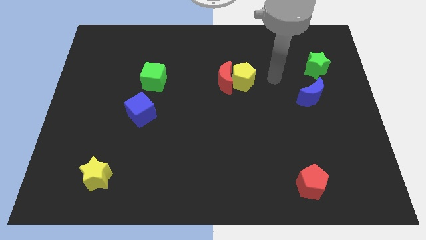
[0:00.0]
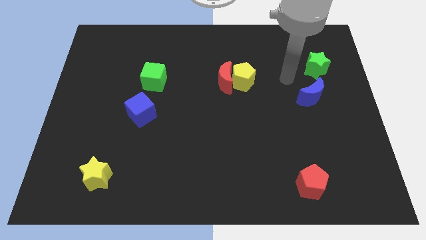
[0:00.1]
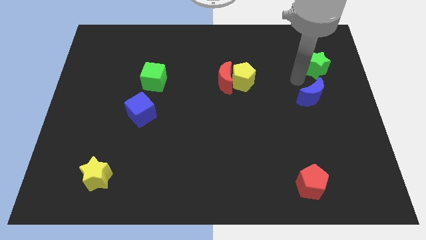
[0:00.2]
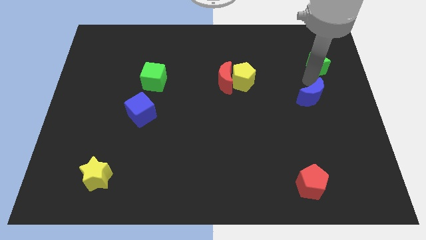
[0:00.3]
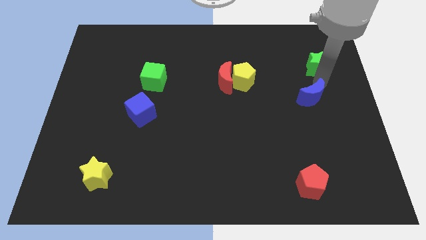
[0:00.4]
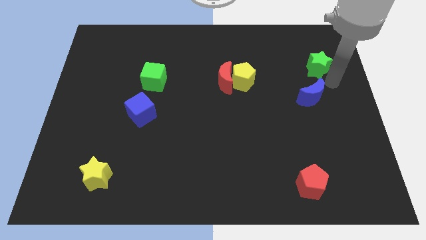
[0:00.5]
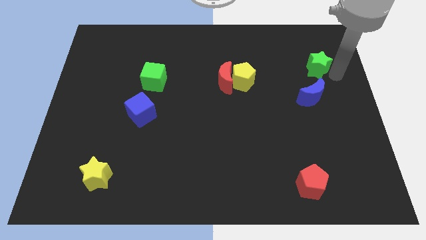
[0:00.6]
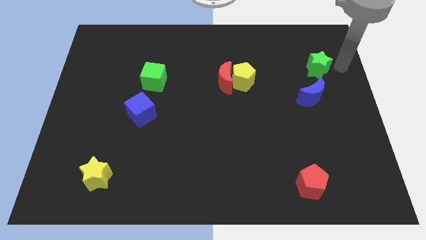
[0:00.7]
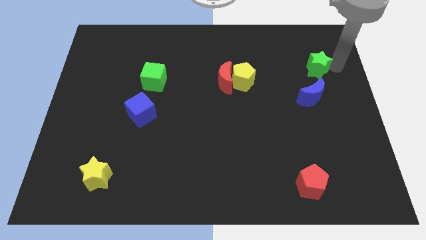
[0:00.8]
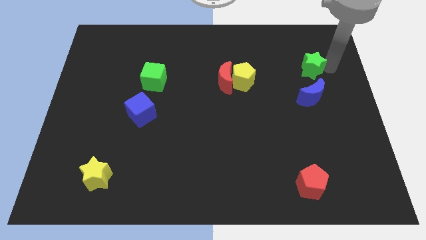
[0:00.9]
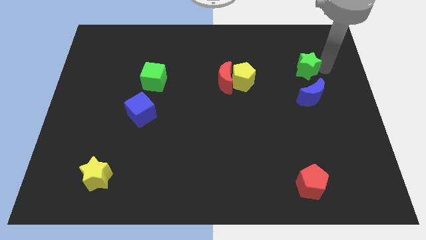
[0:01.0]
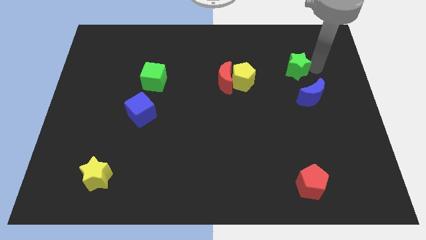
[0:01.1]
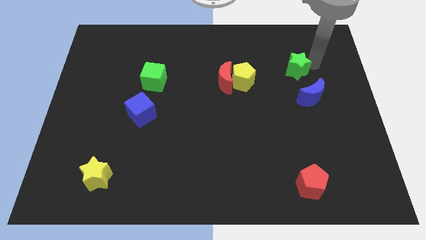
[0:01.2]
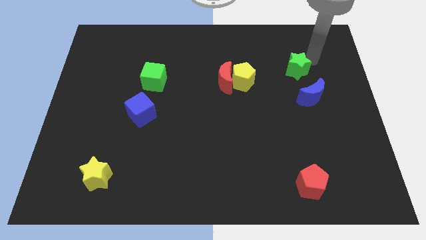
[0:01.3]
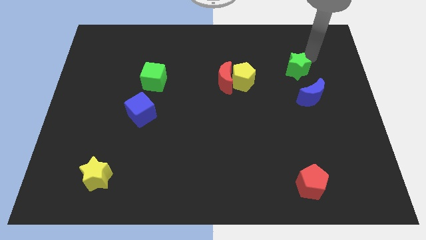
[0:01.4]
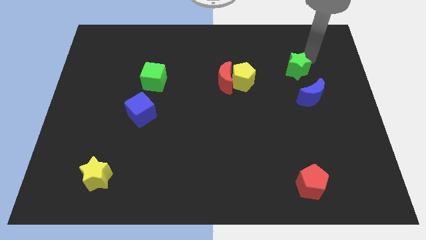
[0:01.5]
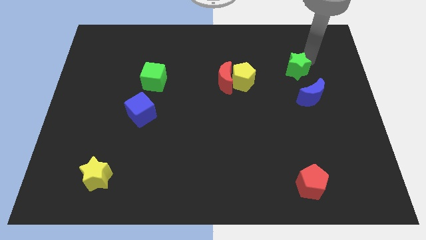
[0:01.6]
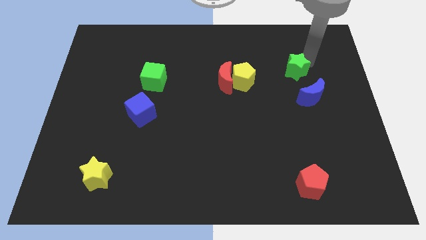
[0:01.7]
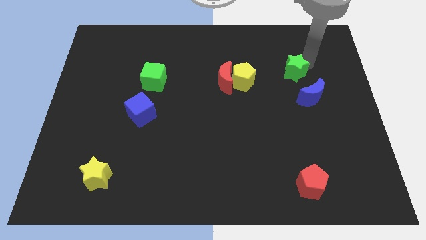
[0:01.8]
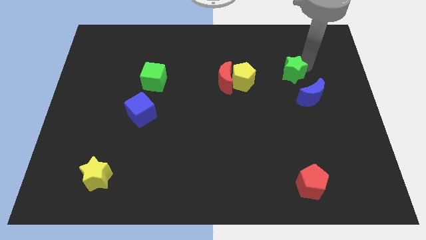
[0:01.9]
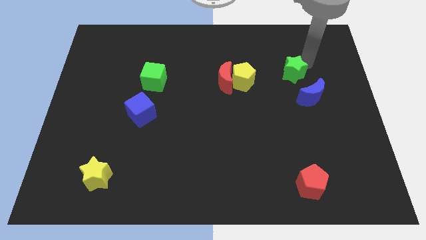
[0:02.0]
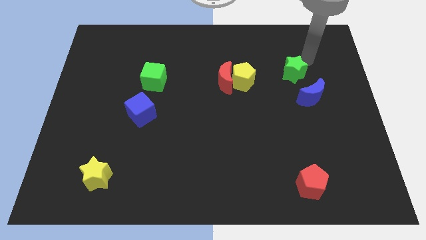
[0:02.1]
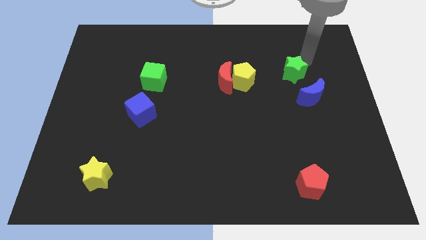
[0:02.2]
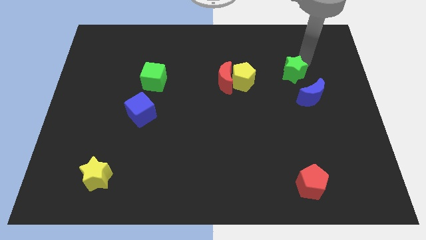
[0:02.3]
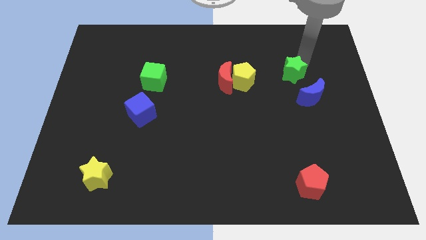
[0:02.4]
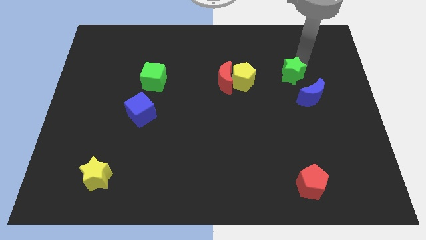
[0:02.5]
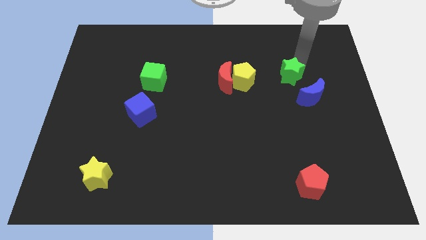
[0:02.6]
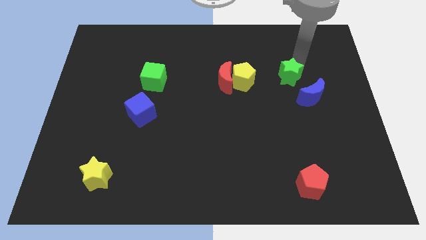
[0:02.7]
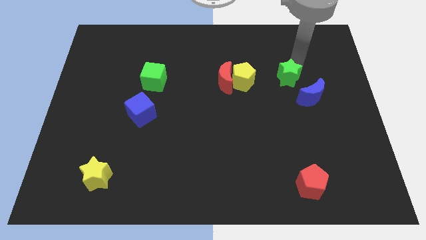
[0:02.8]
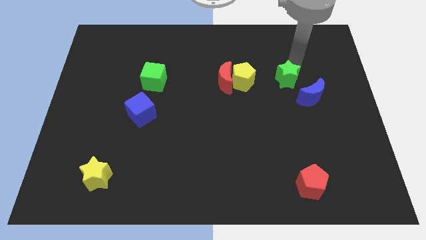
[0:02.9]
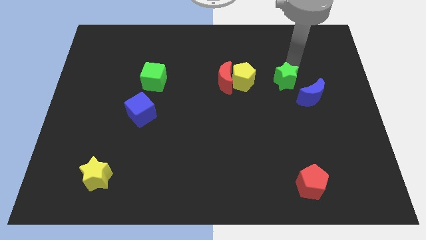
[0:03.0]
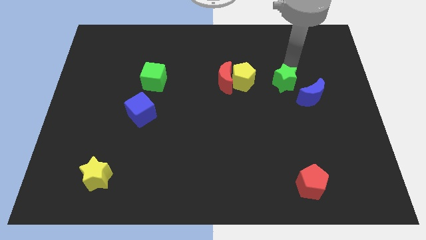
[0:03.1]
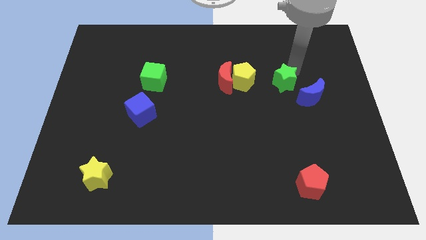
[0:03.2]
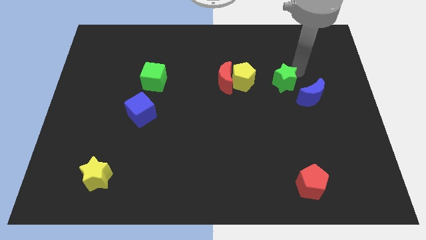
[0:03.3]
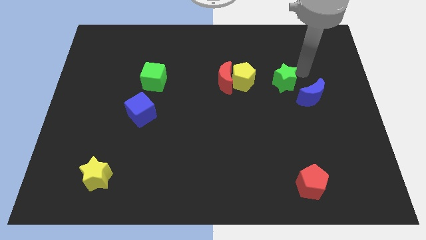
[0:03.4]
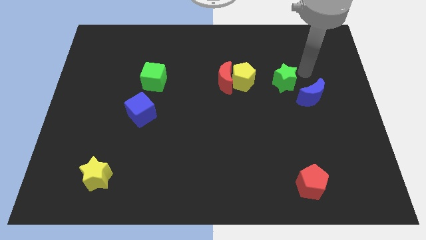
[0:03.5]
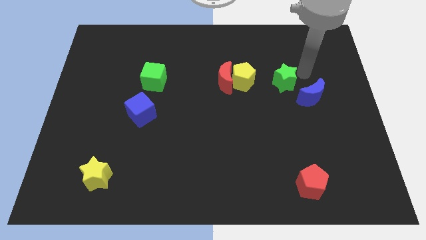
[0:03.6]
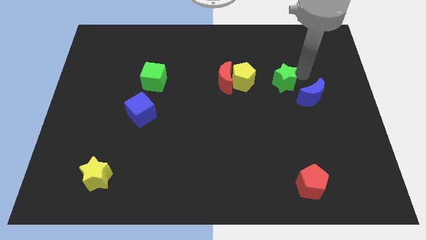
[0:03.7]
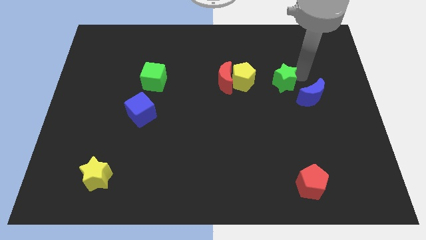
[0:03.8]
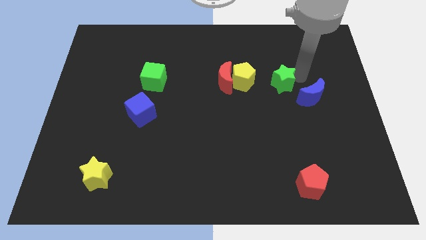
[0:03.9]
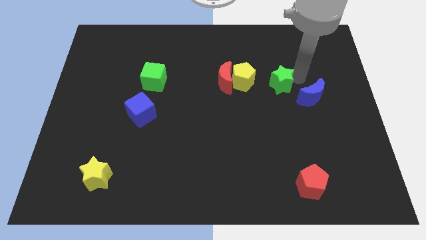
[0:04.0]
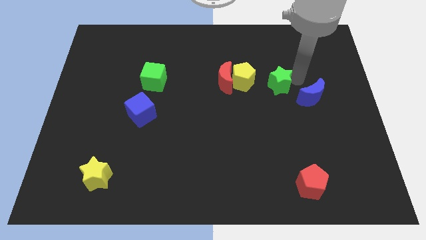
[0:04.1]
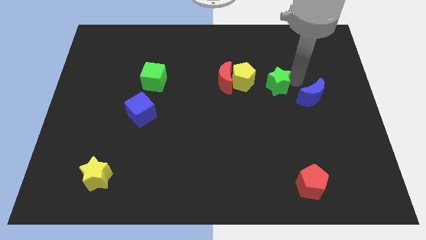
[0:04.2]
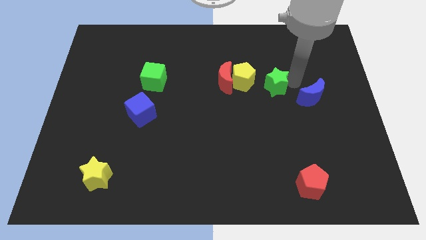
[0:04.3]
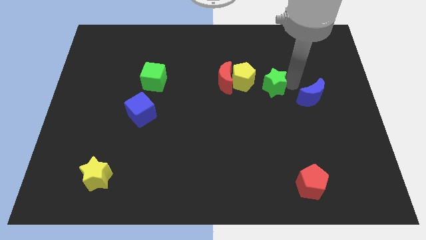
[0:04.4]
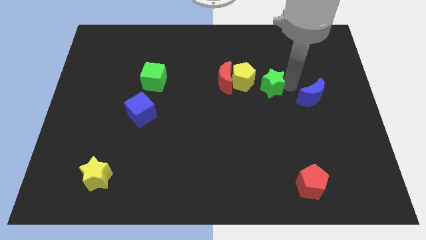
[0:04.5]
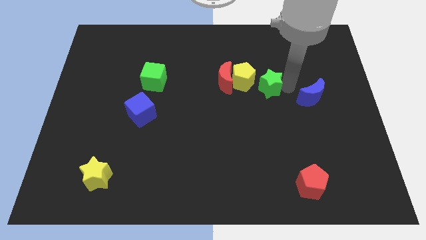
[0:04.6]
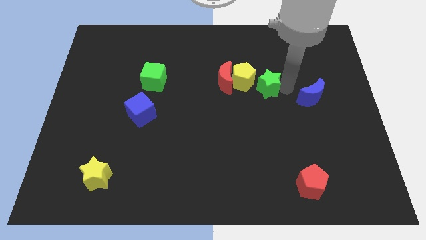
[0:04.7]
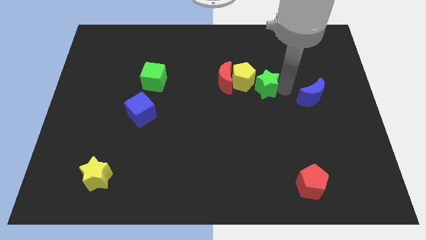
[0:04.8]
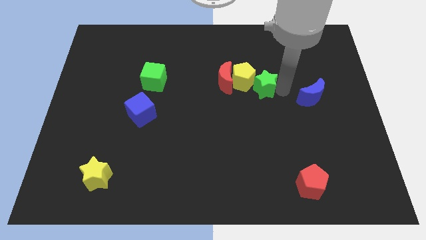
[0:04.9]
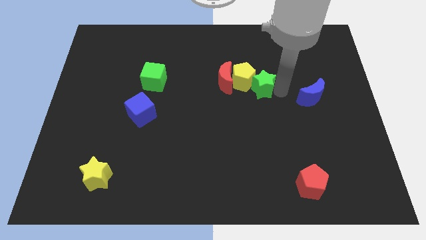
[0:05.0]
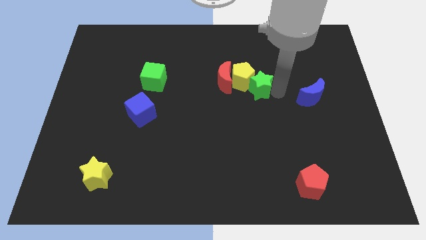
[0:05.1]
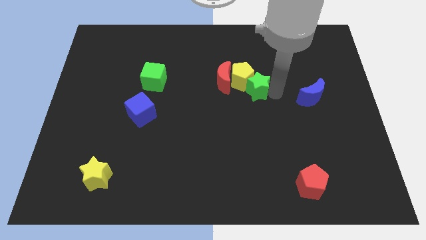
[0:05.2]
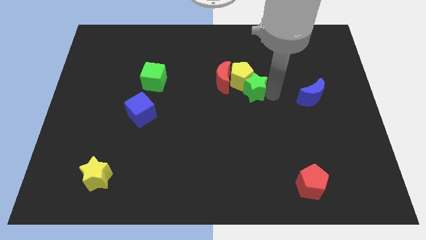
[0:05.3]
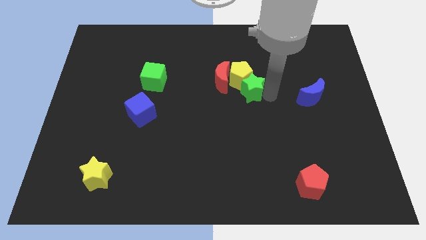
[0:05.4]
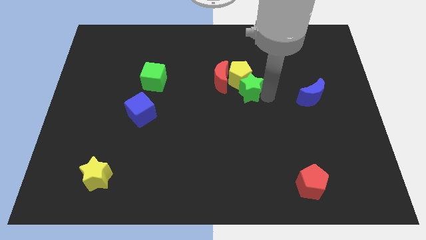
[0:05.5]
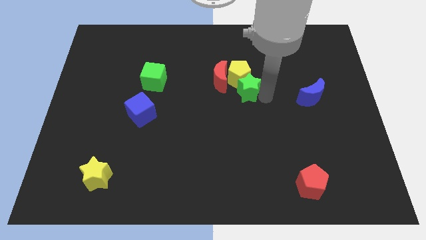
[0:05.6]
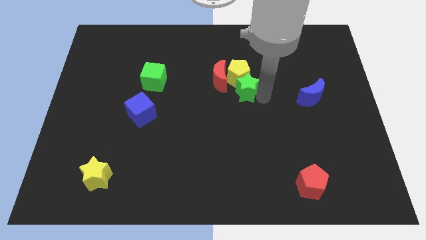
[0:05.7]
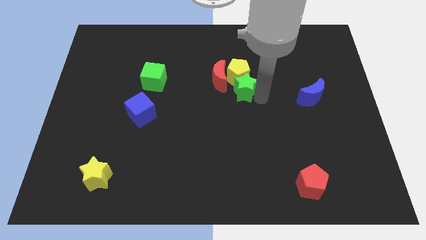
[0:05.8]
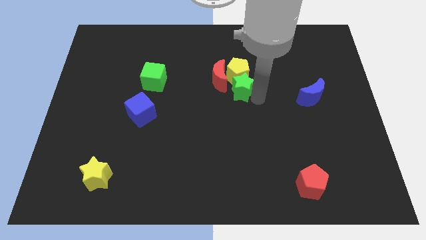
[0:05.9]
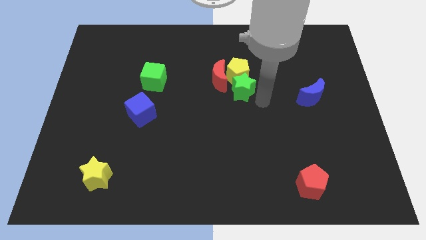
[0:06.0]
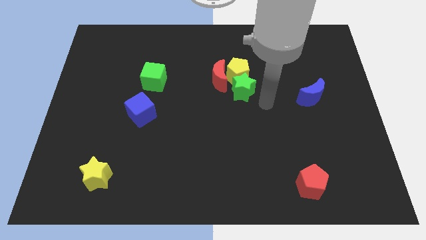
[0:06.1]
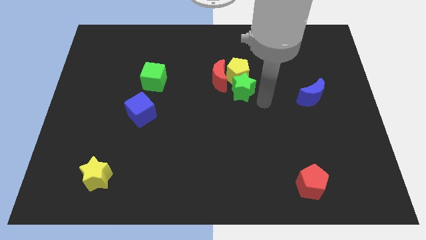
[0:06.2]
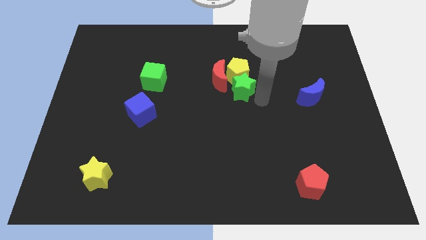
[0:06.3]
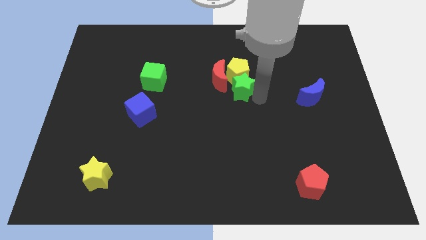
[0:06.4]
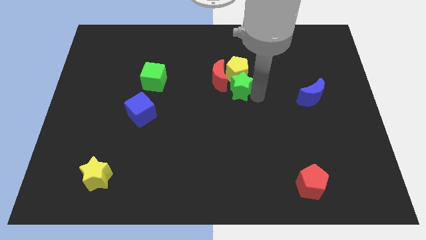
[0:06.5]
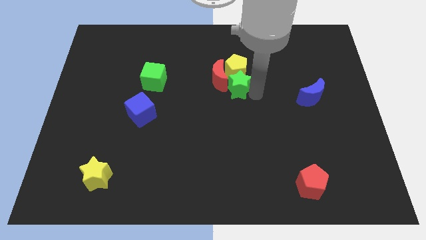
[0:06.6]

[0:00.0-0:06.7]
slide the green star next to the red moon
